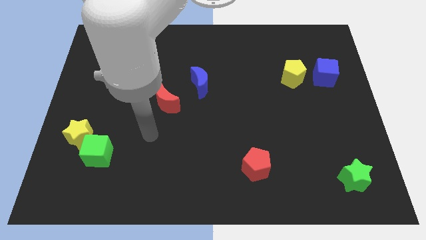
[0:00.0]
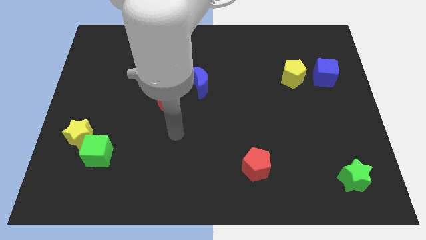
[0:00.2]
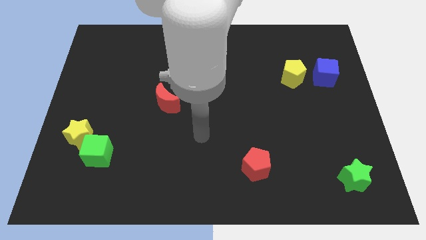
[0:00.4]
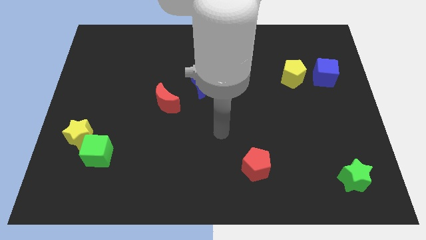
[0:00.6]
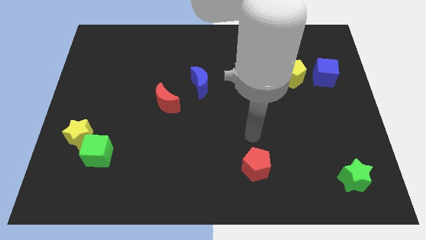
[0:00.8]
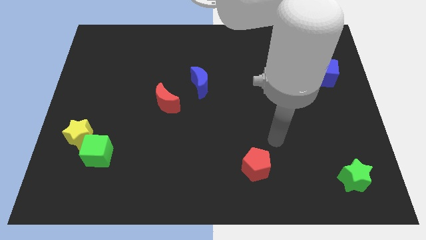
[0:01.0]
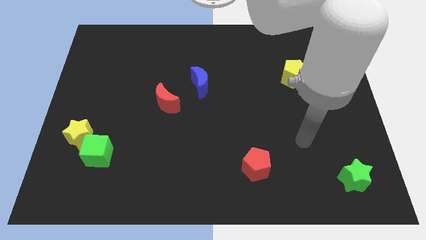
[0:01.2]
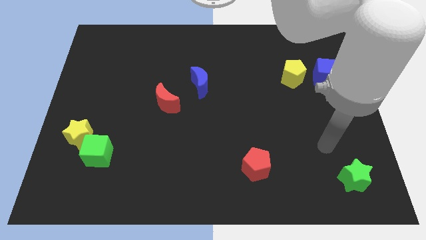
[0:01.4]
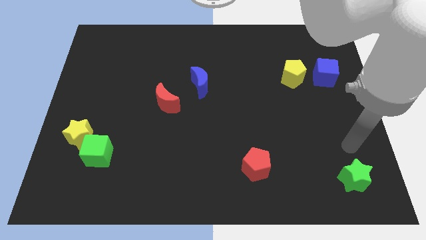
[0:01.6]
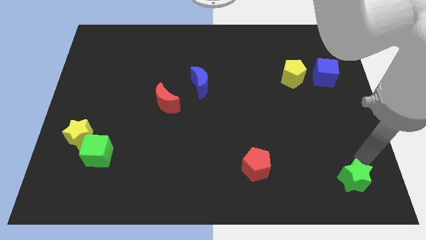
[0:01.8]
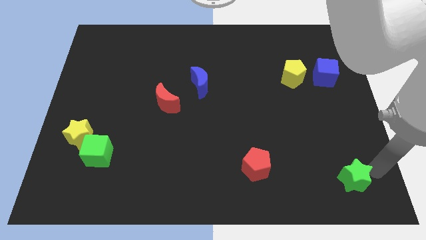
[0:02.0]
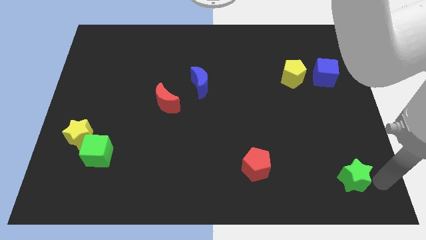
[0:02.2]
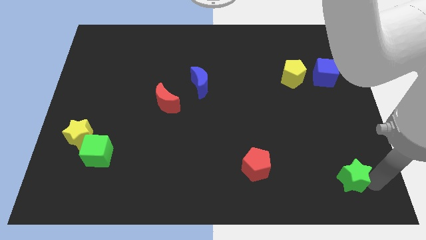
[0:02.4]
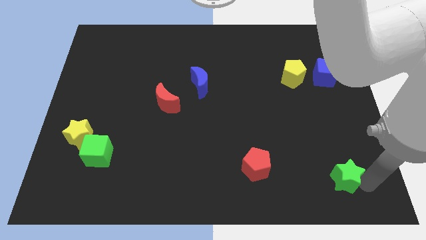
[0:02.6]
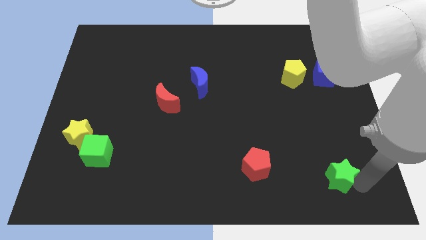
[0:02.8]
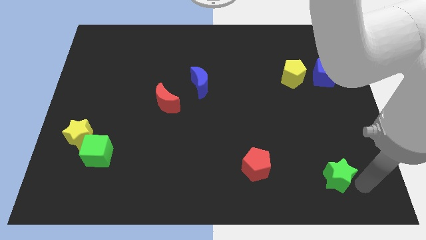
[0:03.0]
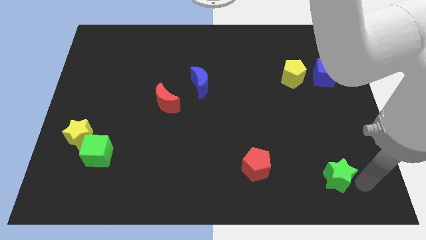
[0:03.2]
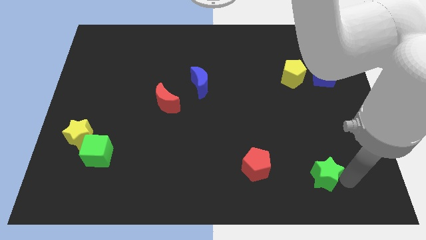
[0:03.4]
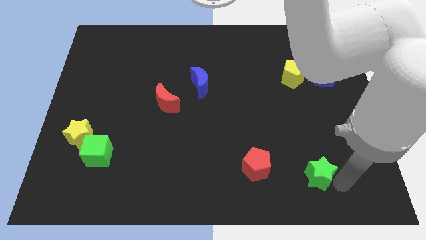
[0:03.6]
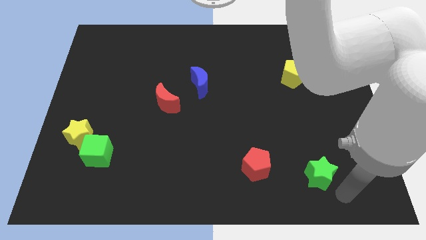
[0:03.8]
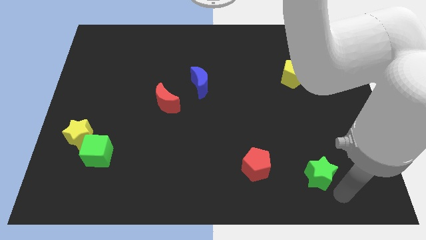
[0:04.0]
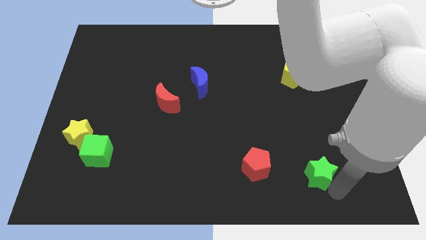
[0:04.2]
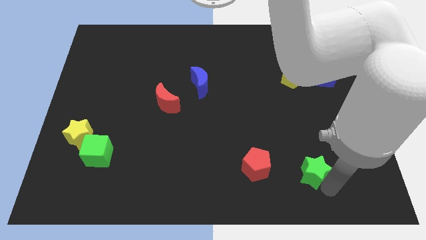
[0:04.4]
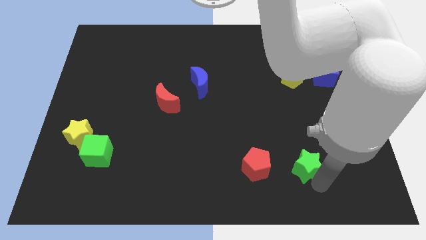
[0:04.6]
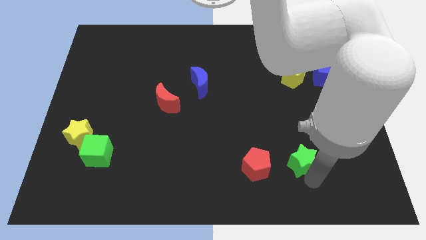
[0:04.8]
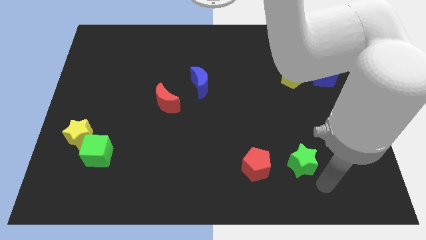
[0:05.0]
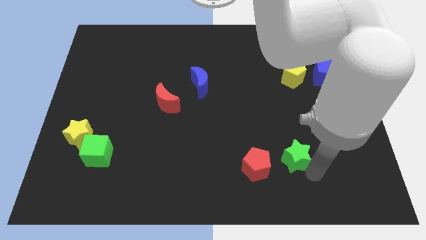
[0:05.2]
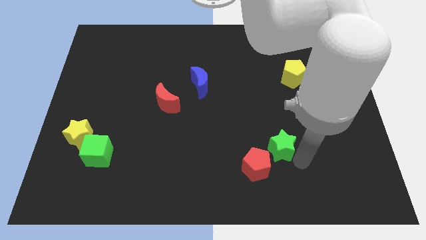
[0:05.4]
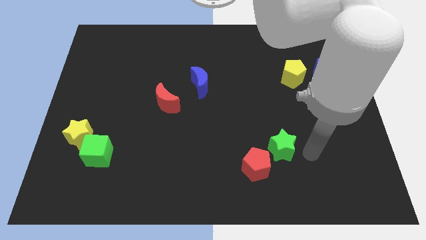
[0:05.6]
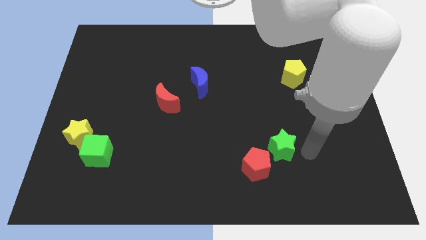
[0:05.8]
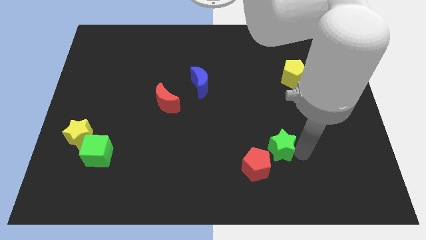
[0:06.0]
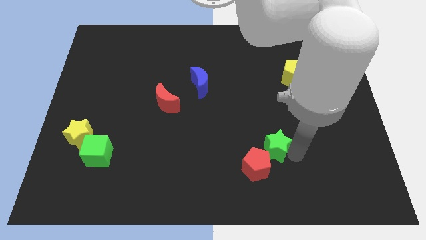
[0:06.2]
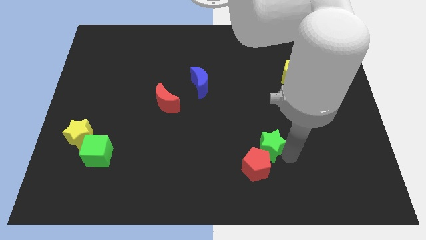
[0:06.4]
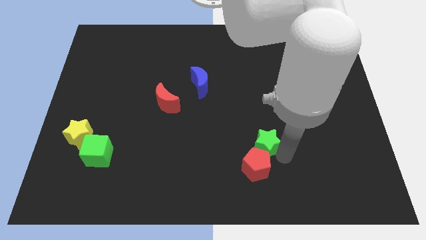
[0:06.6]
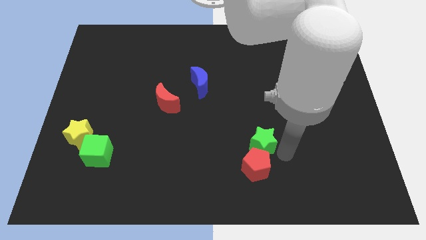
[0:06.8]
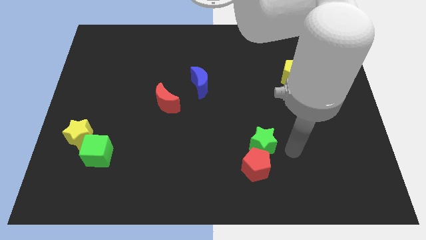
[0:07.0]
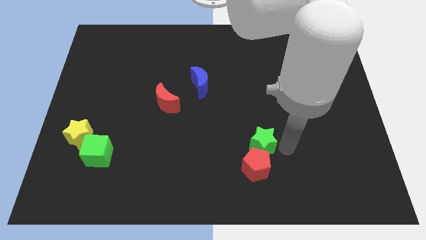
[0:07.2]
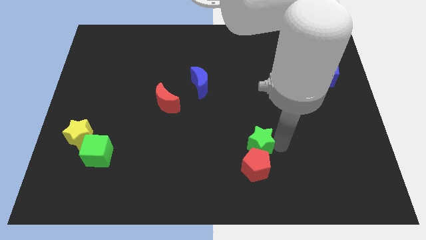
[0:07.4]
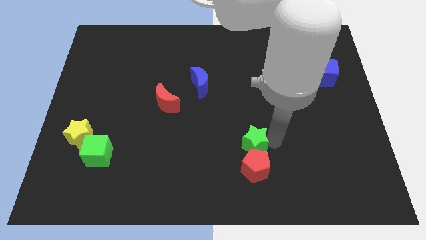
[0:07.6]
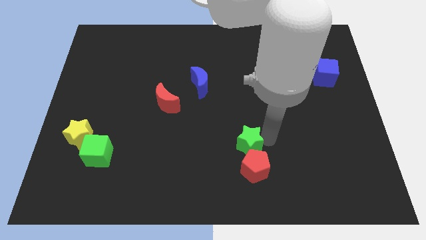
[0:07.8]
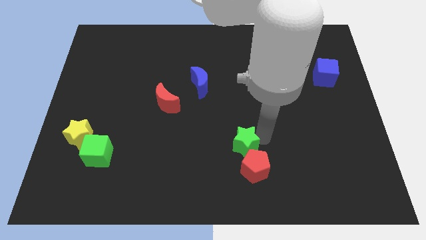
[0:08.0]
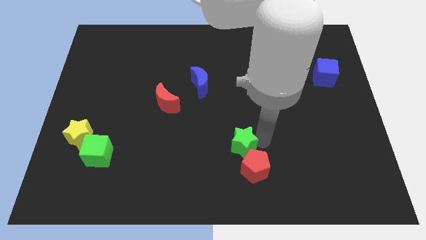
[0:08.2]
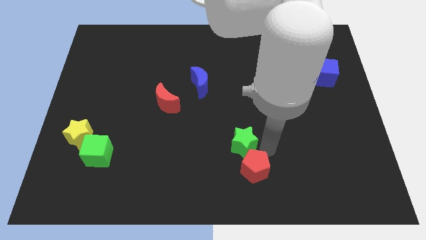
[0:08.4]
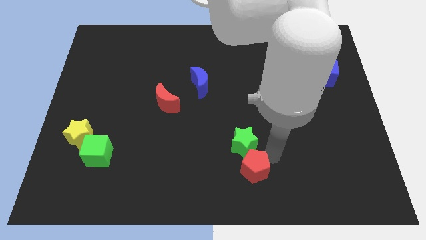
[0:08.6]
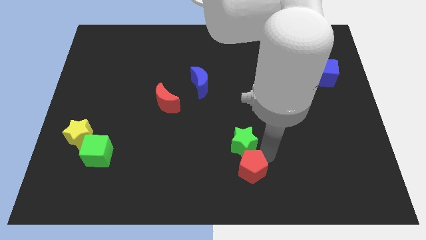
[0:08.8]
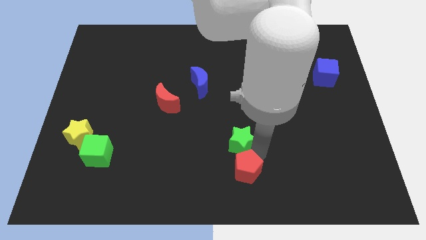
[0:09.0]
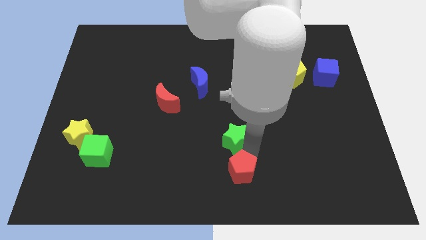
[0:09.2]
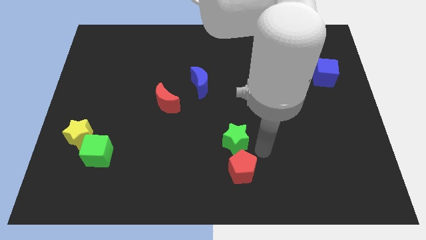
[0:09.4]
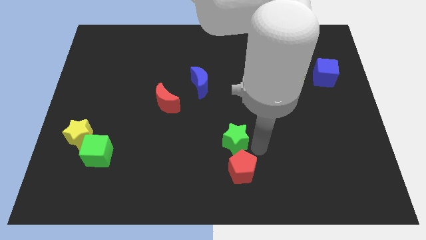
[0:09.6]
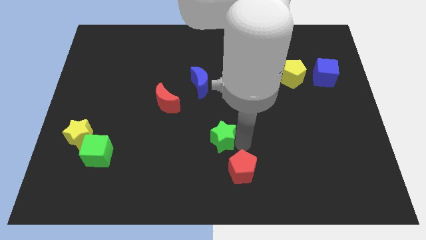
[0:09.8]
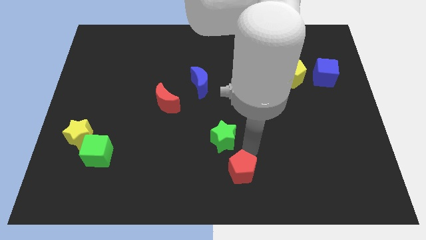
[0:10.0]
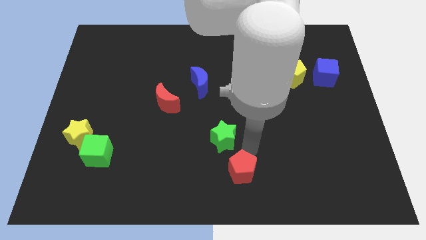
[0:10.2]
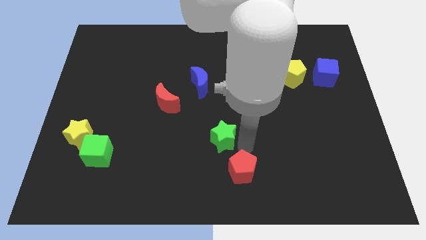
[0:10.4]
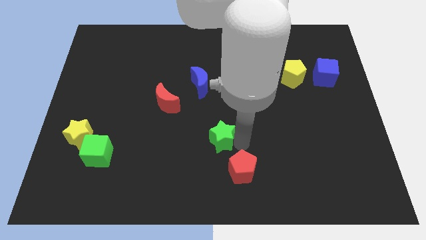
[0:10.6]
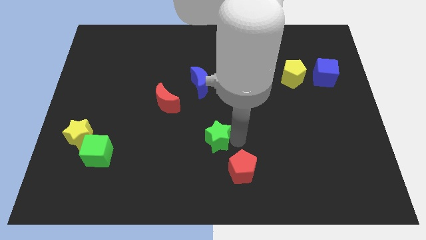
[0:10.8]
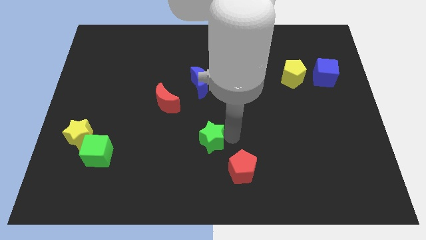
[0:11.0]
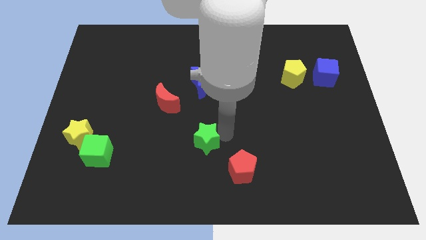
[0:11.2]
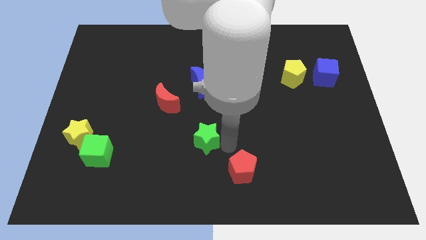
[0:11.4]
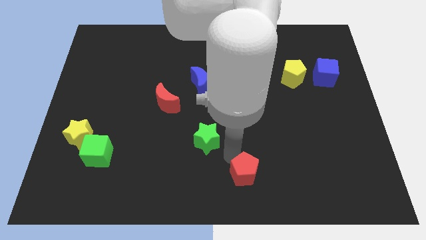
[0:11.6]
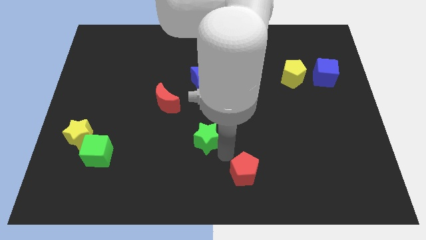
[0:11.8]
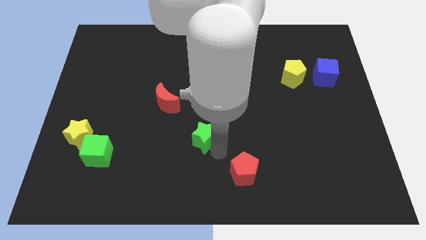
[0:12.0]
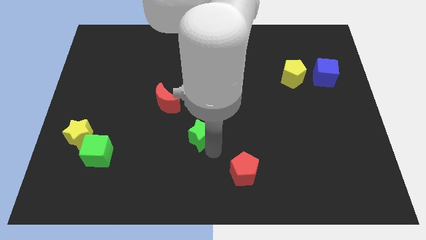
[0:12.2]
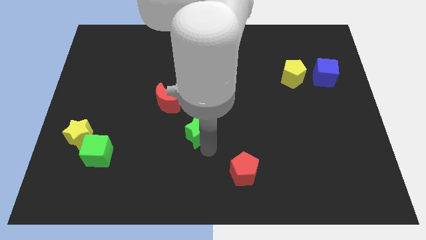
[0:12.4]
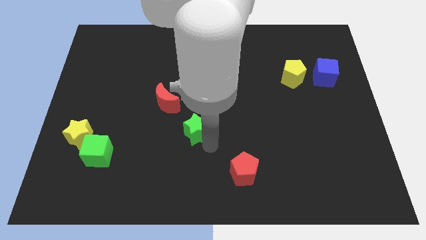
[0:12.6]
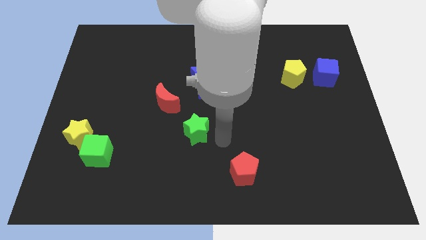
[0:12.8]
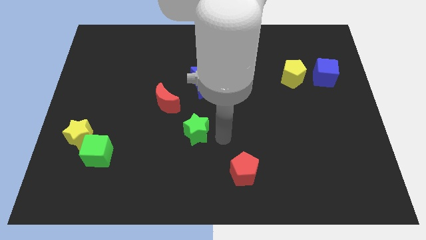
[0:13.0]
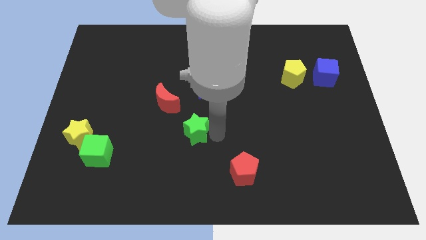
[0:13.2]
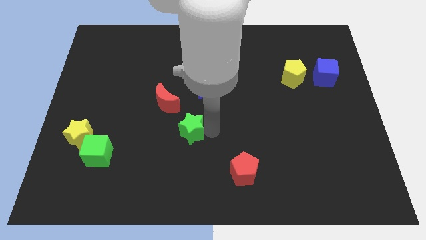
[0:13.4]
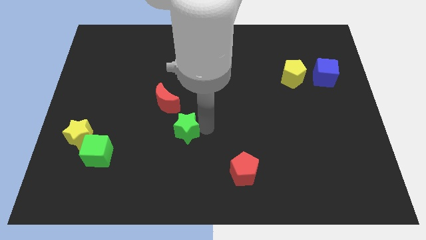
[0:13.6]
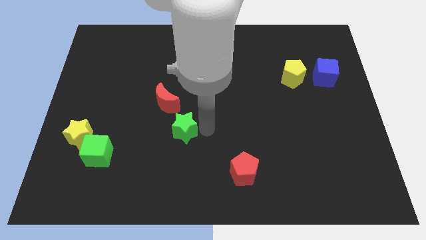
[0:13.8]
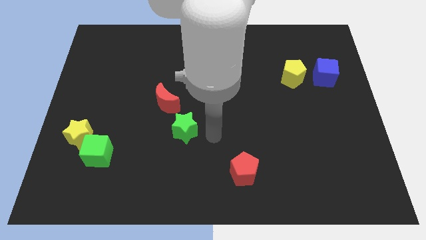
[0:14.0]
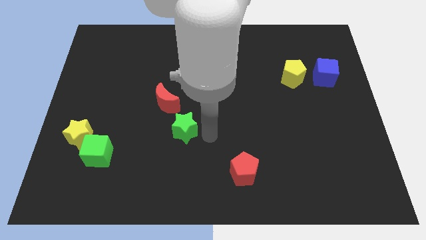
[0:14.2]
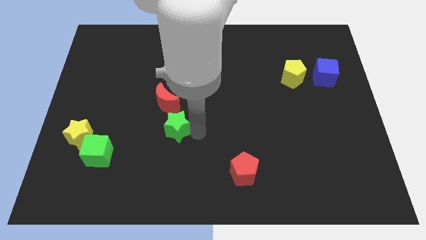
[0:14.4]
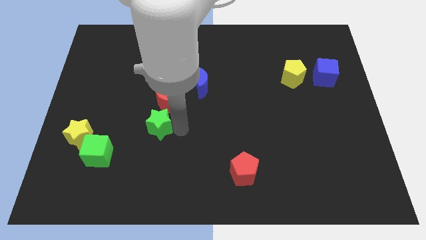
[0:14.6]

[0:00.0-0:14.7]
move the green star diagonally down and to the left of the red moon
